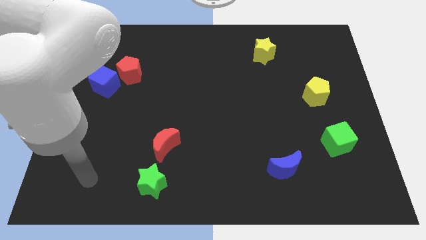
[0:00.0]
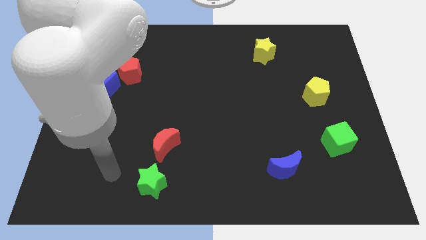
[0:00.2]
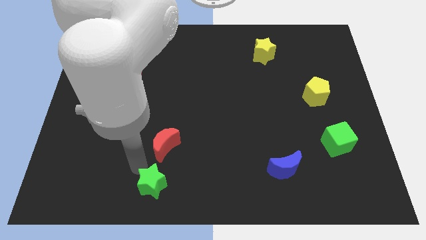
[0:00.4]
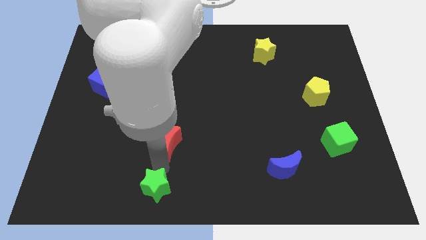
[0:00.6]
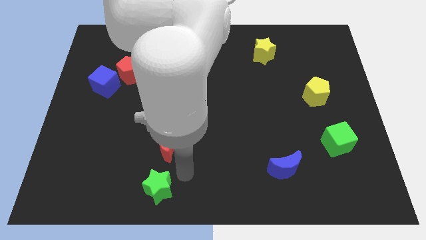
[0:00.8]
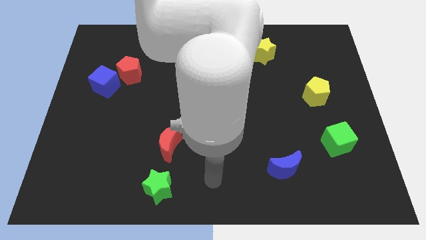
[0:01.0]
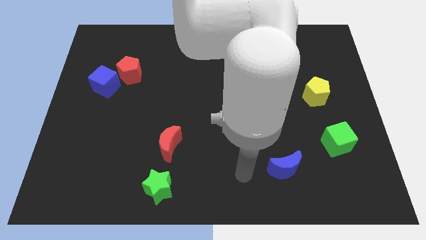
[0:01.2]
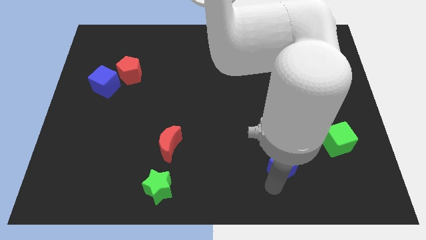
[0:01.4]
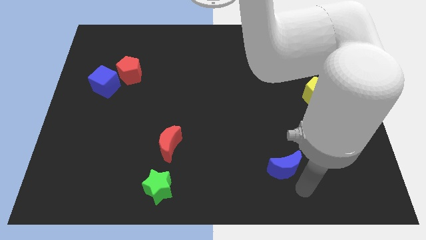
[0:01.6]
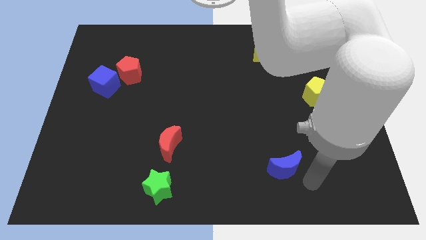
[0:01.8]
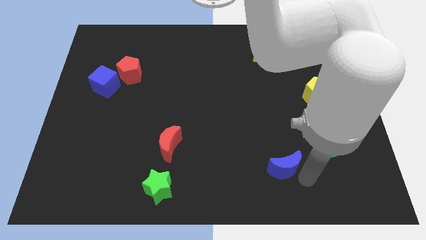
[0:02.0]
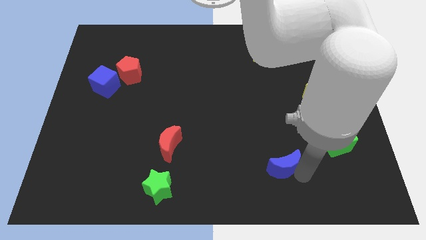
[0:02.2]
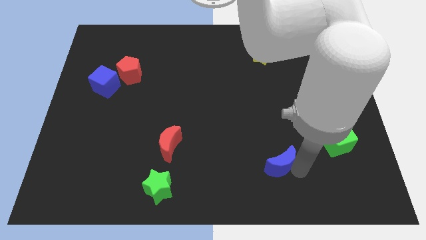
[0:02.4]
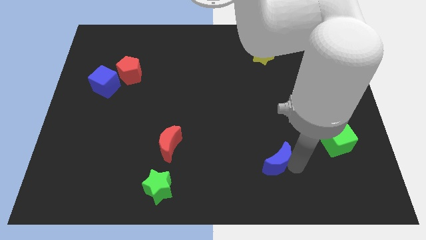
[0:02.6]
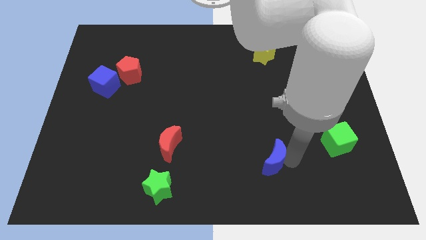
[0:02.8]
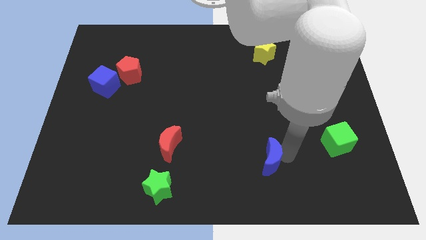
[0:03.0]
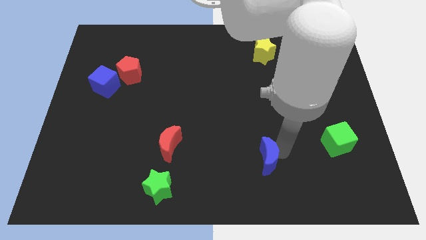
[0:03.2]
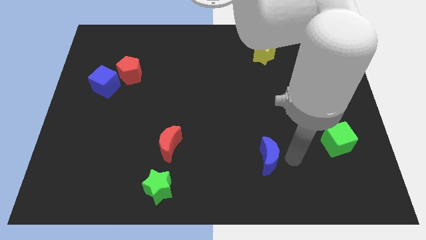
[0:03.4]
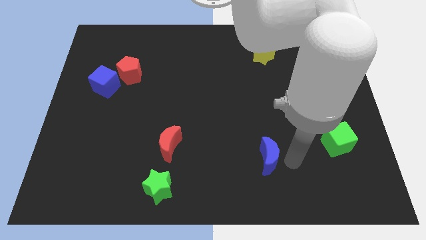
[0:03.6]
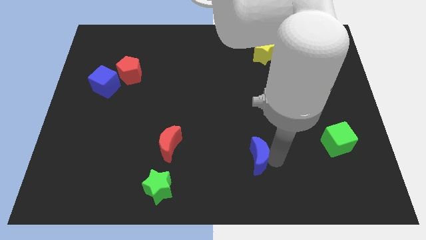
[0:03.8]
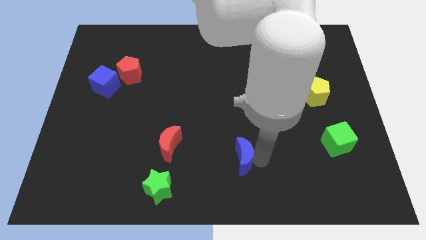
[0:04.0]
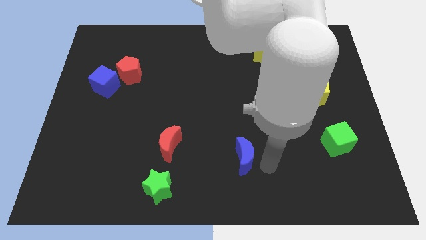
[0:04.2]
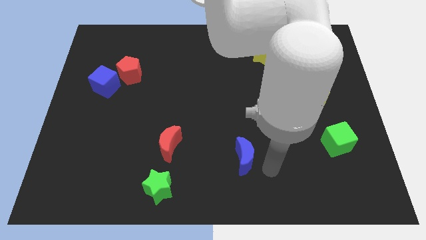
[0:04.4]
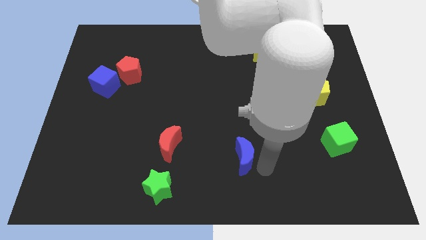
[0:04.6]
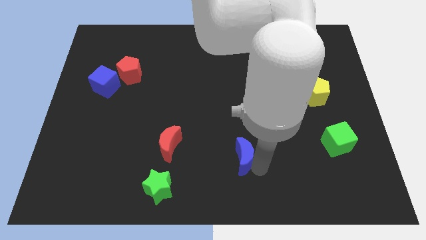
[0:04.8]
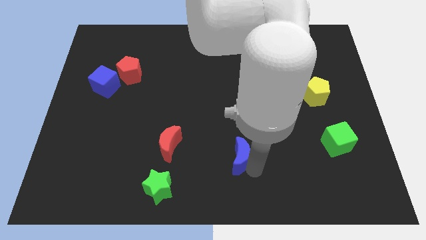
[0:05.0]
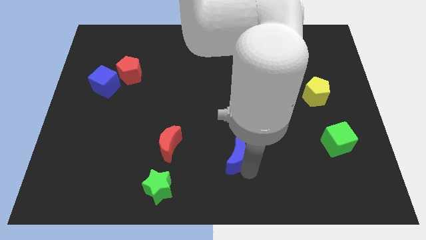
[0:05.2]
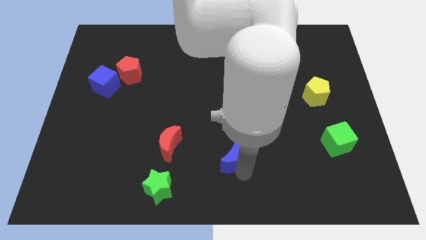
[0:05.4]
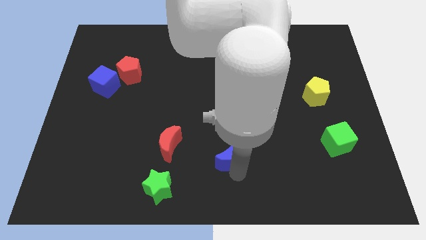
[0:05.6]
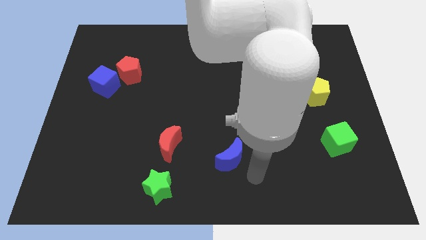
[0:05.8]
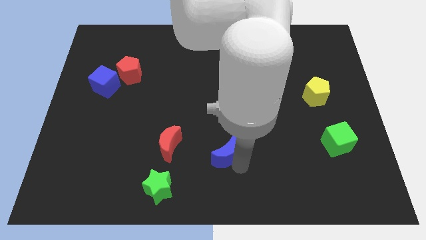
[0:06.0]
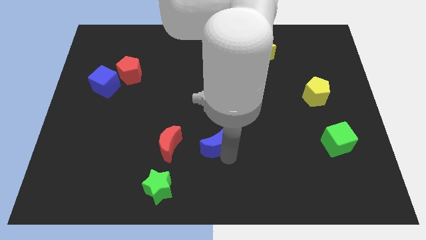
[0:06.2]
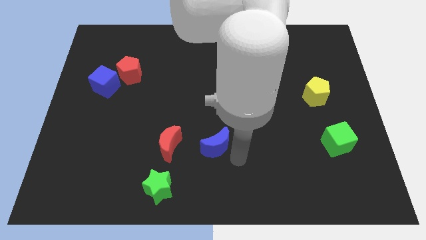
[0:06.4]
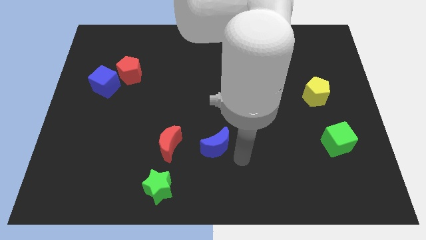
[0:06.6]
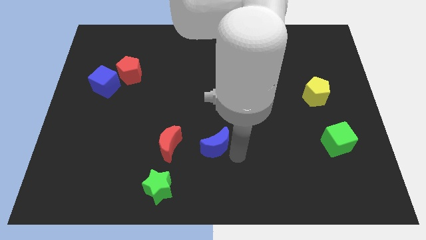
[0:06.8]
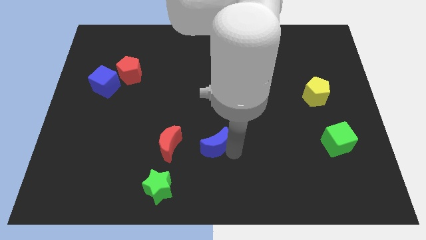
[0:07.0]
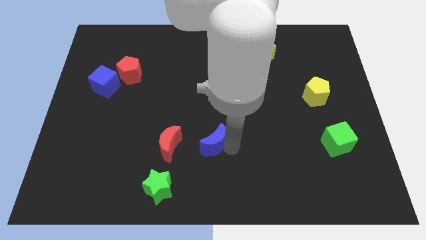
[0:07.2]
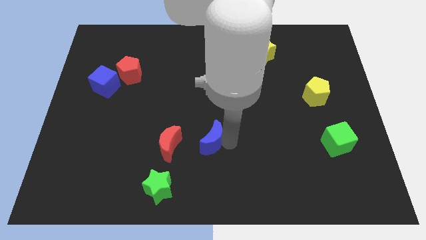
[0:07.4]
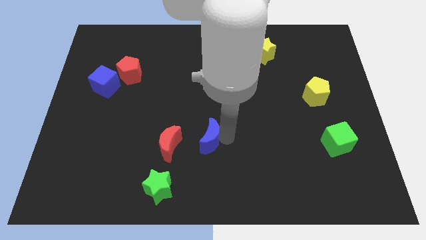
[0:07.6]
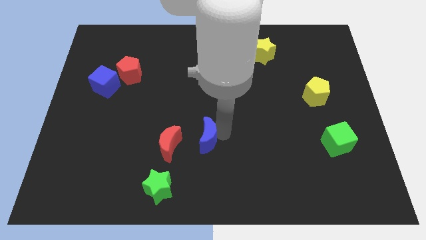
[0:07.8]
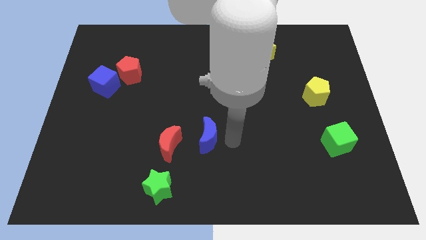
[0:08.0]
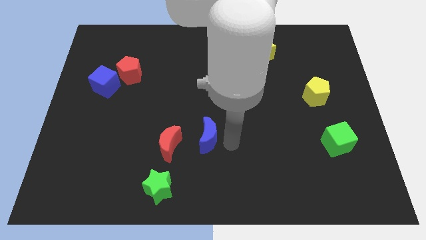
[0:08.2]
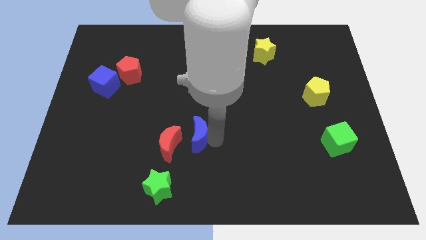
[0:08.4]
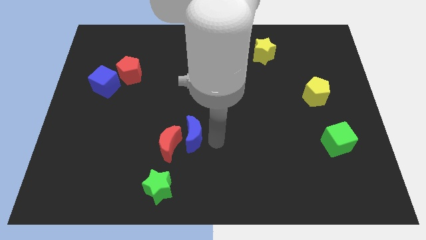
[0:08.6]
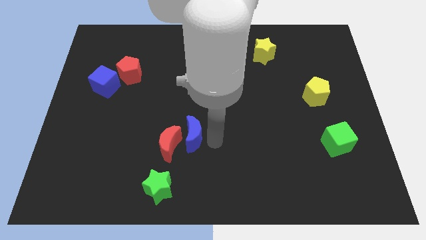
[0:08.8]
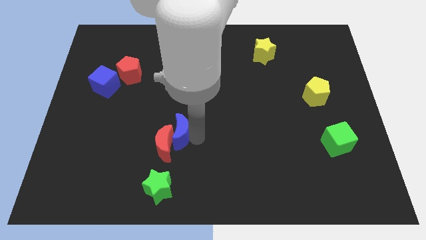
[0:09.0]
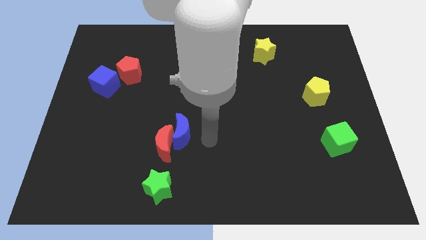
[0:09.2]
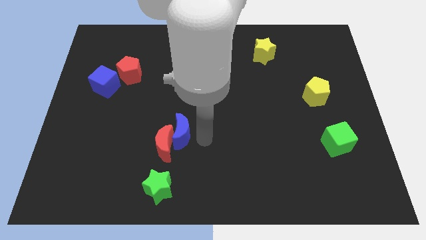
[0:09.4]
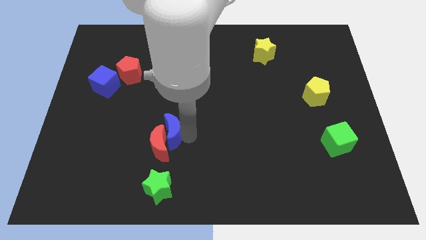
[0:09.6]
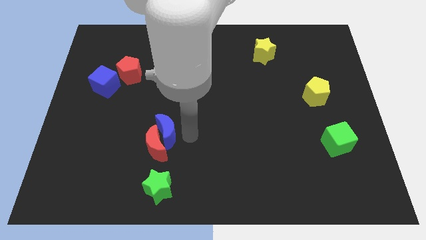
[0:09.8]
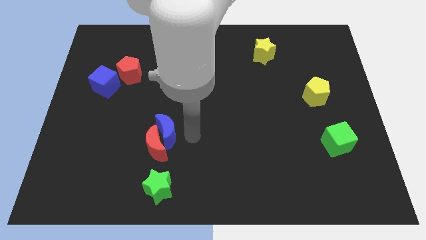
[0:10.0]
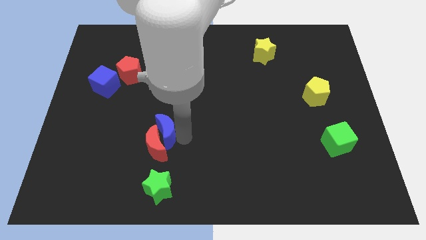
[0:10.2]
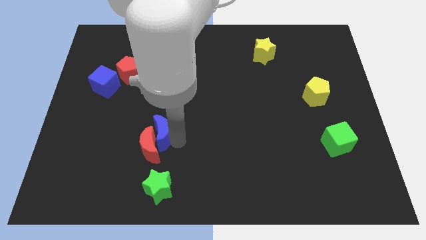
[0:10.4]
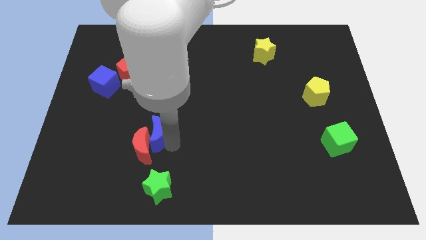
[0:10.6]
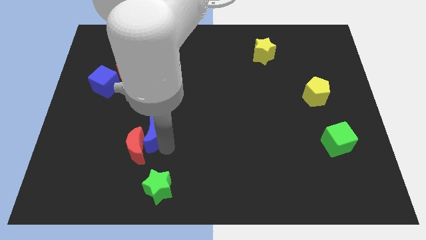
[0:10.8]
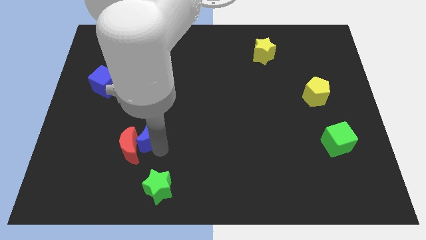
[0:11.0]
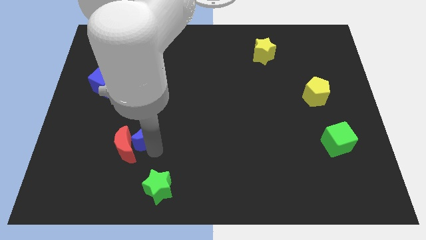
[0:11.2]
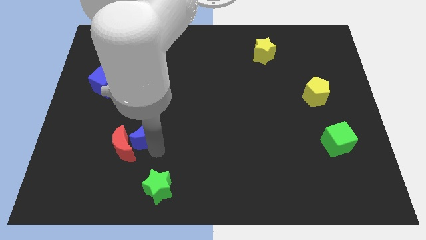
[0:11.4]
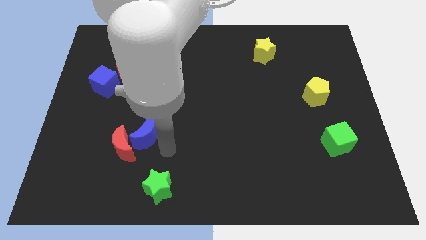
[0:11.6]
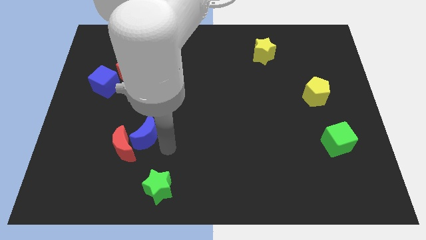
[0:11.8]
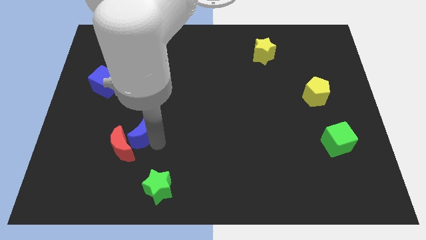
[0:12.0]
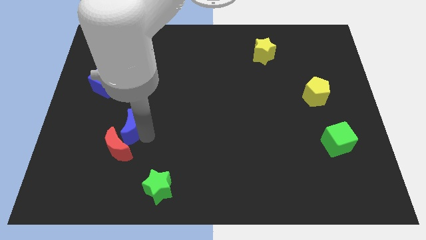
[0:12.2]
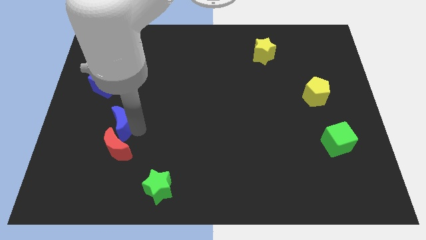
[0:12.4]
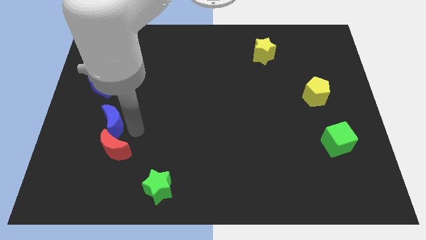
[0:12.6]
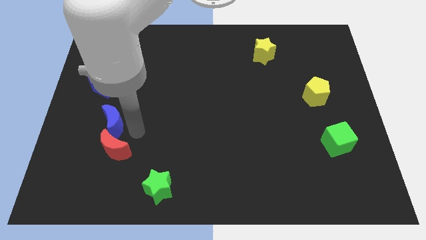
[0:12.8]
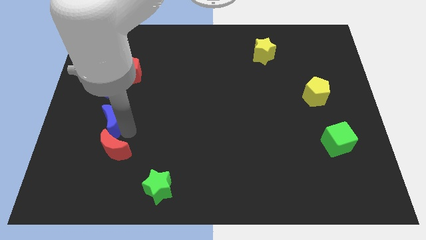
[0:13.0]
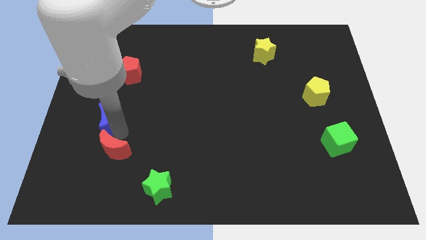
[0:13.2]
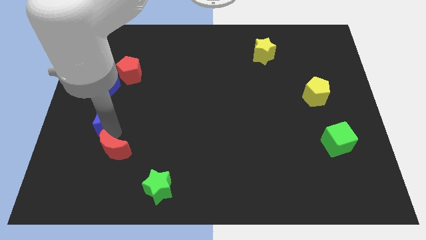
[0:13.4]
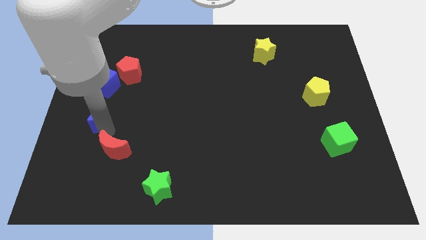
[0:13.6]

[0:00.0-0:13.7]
put the blue moon to the center left
